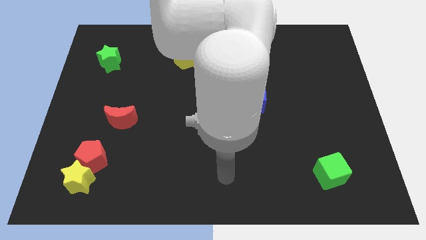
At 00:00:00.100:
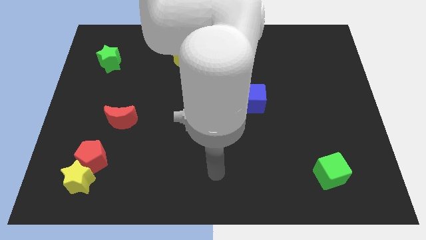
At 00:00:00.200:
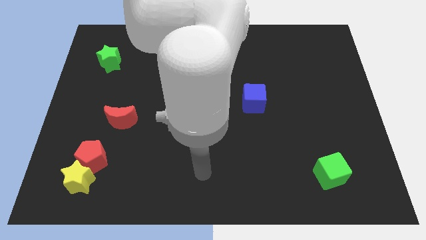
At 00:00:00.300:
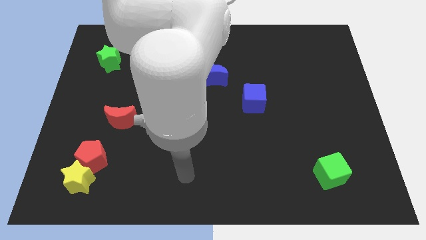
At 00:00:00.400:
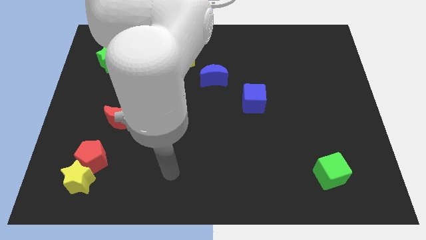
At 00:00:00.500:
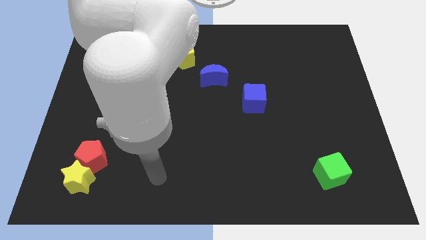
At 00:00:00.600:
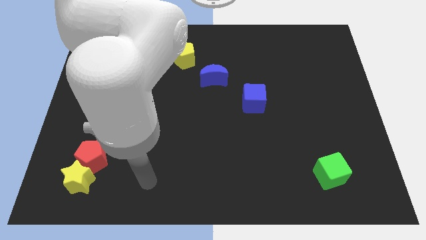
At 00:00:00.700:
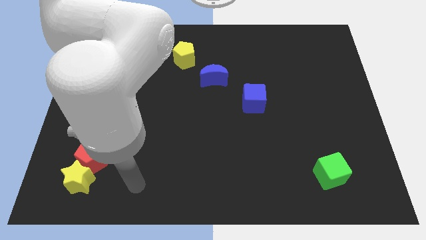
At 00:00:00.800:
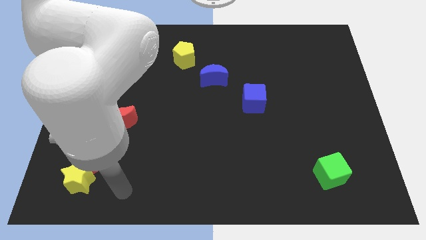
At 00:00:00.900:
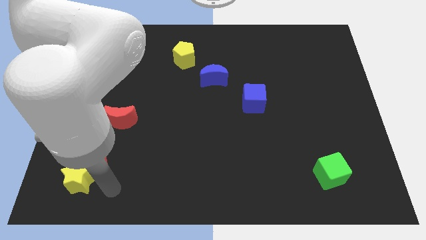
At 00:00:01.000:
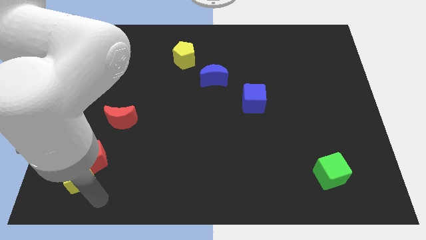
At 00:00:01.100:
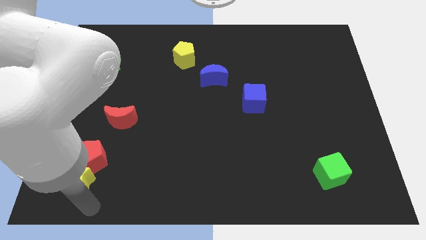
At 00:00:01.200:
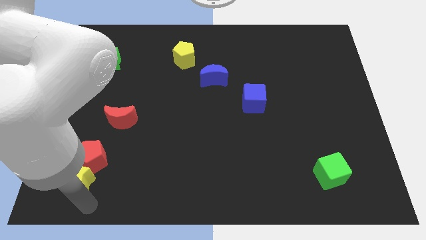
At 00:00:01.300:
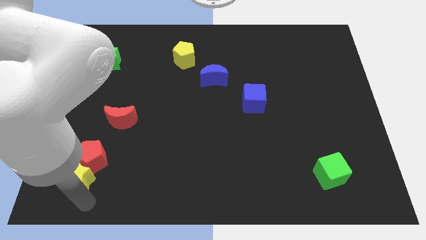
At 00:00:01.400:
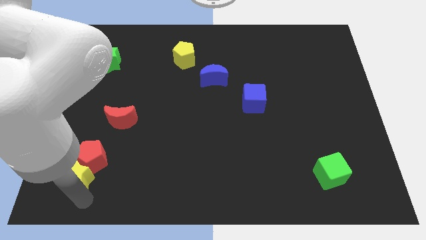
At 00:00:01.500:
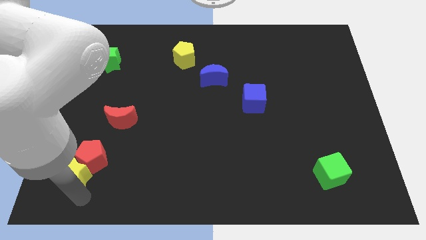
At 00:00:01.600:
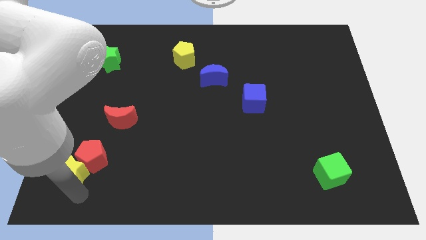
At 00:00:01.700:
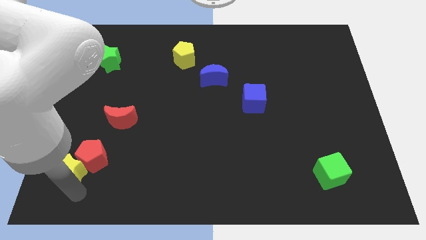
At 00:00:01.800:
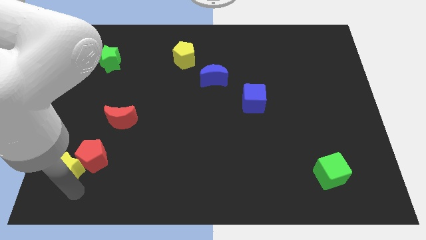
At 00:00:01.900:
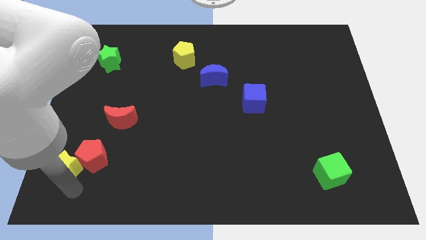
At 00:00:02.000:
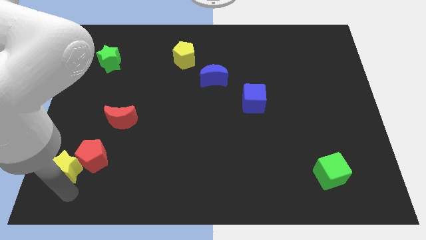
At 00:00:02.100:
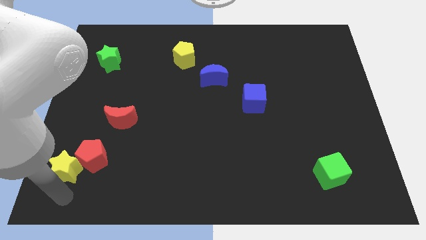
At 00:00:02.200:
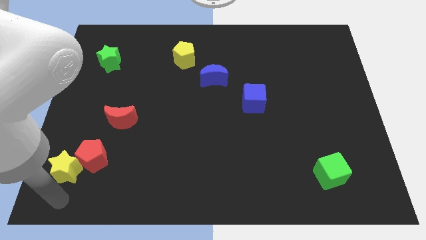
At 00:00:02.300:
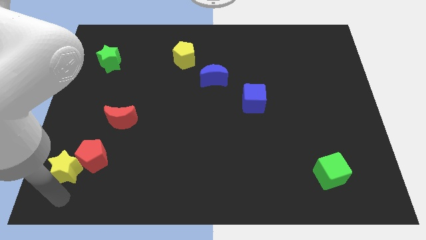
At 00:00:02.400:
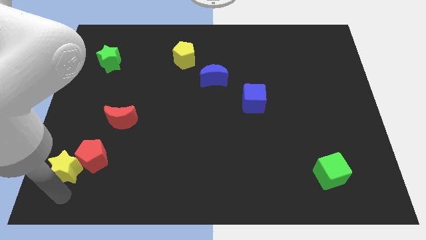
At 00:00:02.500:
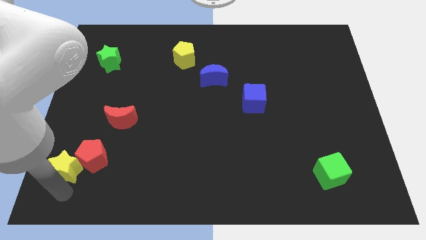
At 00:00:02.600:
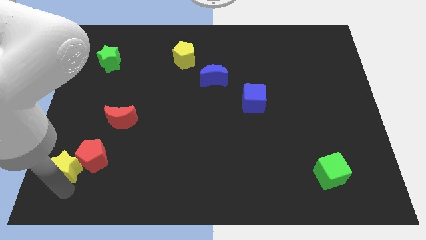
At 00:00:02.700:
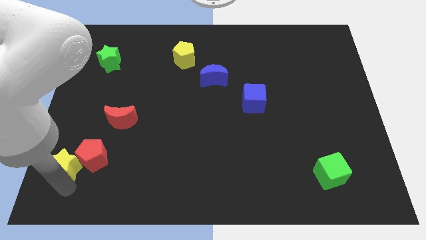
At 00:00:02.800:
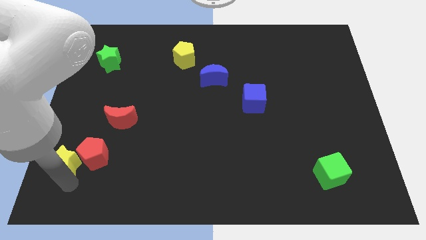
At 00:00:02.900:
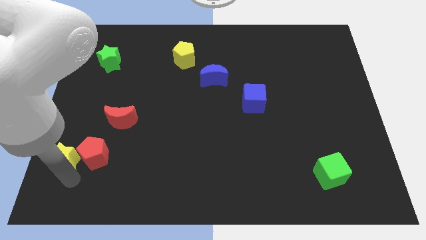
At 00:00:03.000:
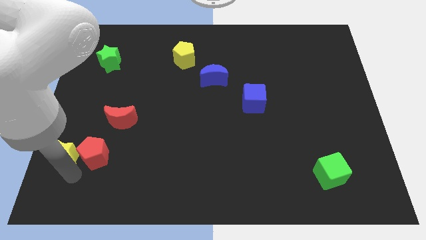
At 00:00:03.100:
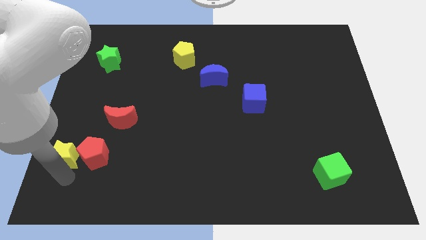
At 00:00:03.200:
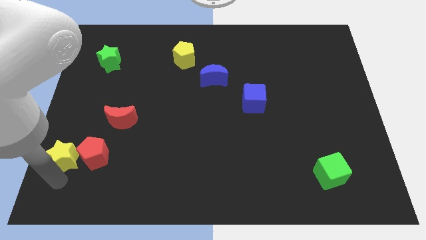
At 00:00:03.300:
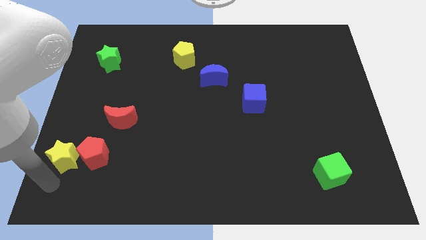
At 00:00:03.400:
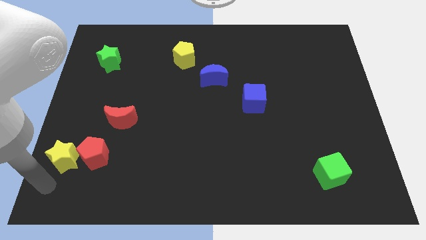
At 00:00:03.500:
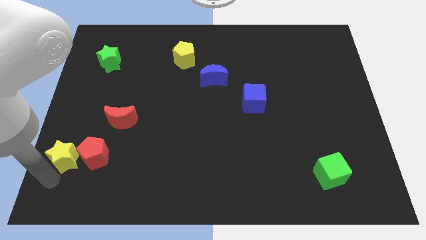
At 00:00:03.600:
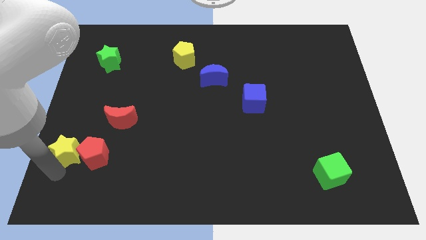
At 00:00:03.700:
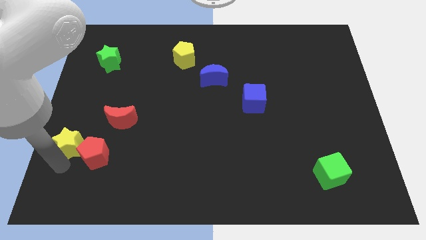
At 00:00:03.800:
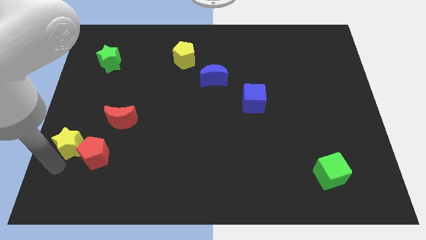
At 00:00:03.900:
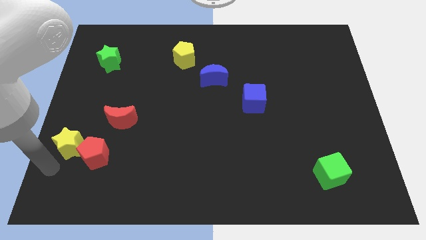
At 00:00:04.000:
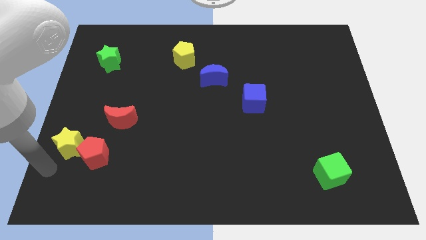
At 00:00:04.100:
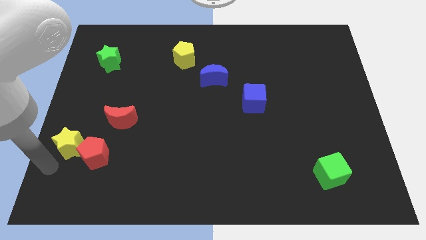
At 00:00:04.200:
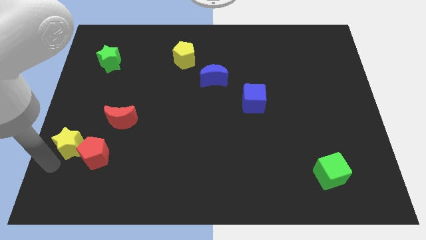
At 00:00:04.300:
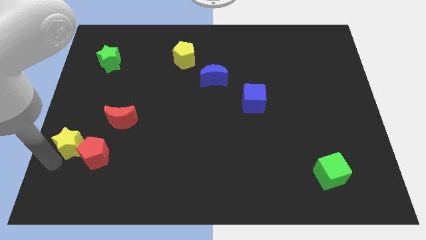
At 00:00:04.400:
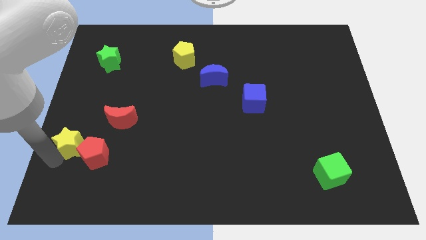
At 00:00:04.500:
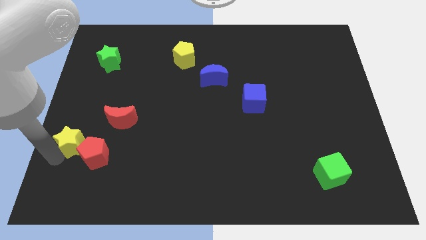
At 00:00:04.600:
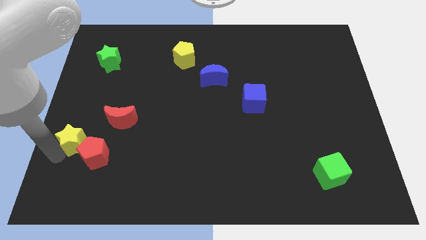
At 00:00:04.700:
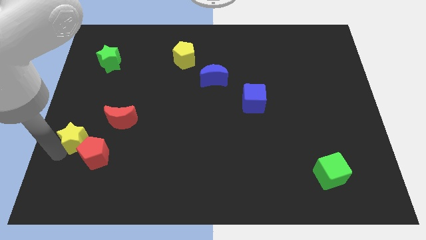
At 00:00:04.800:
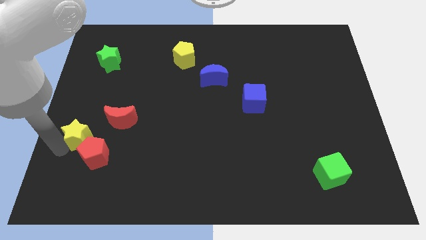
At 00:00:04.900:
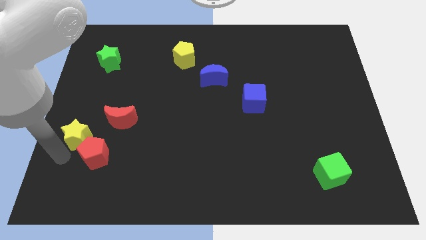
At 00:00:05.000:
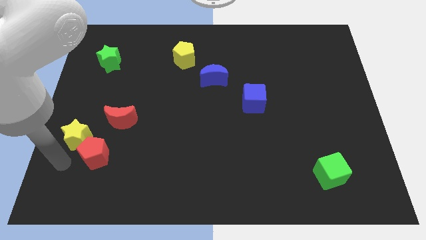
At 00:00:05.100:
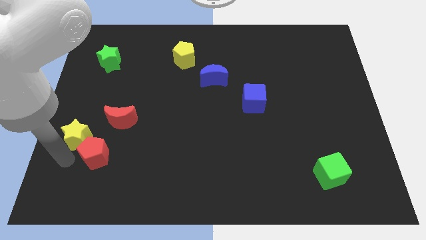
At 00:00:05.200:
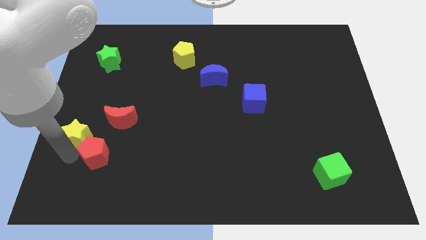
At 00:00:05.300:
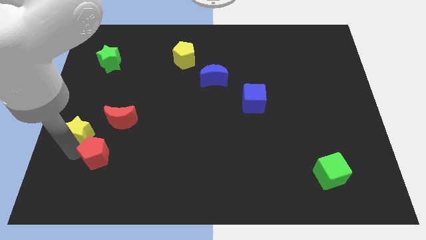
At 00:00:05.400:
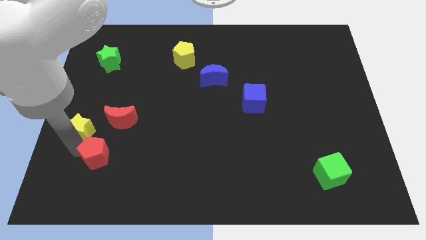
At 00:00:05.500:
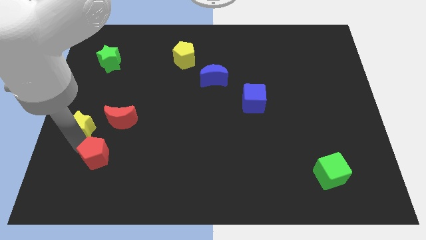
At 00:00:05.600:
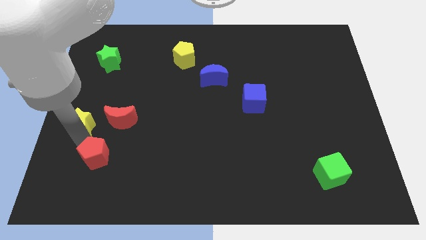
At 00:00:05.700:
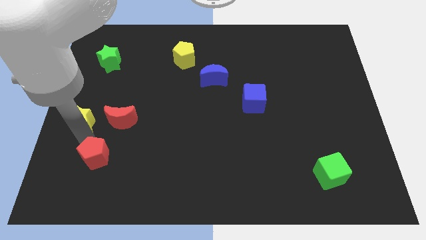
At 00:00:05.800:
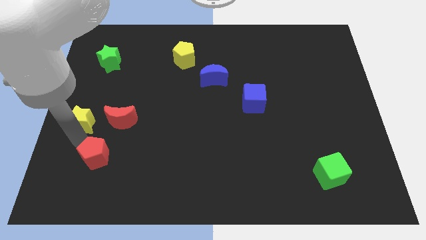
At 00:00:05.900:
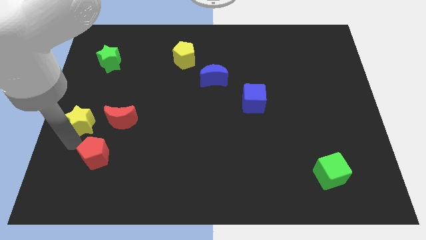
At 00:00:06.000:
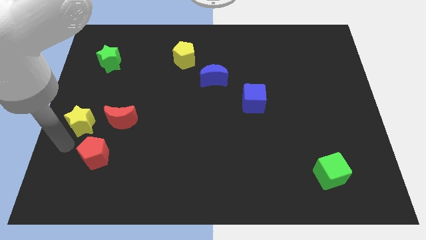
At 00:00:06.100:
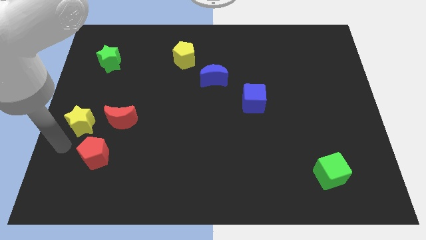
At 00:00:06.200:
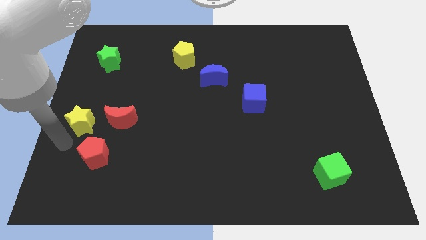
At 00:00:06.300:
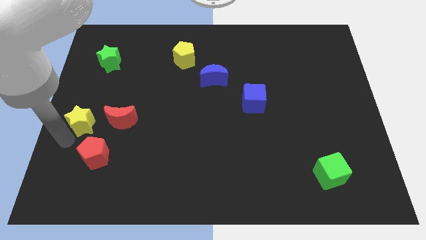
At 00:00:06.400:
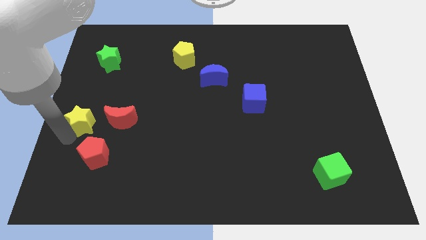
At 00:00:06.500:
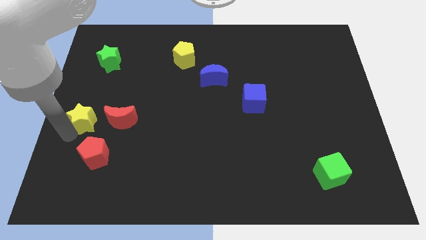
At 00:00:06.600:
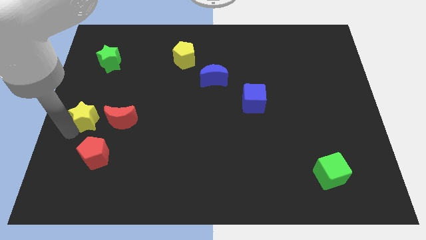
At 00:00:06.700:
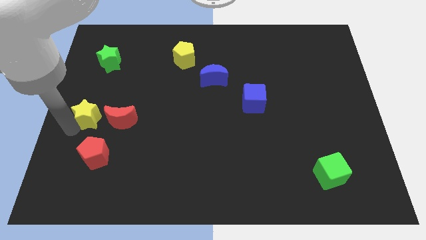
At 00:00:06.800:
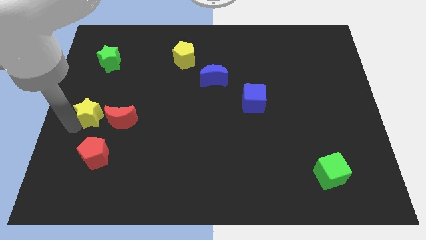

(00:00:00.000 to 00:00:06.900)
push the yellow star to the top left side of the red moon
